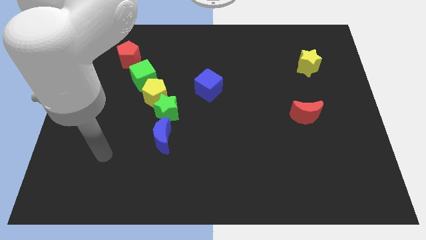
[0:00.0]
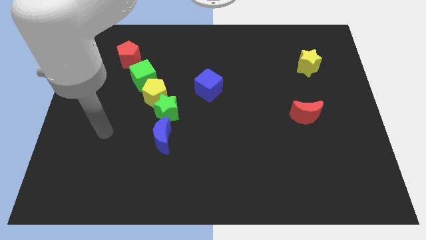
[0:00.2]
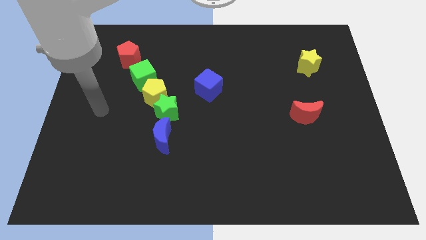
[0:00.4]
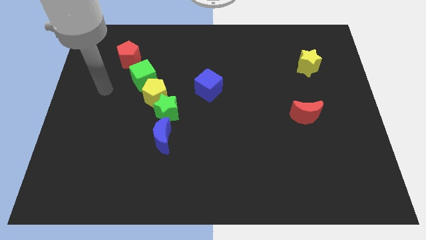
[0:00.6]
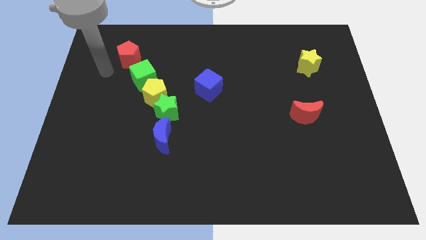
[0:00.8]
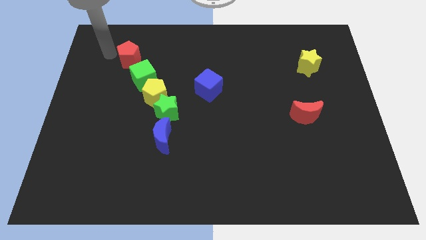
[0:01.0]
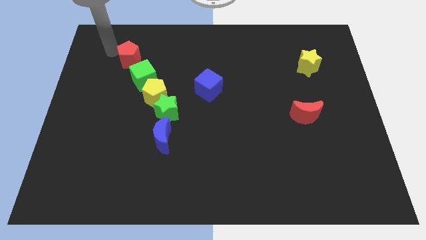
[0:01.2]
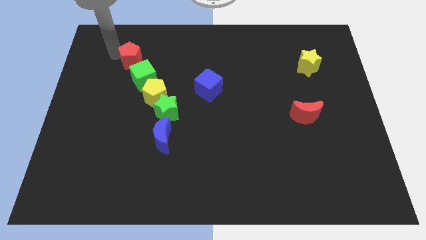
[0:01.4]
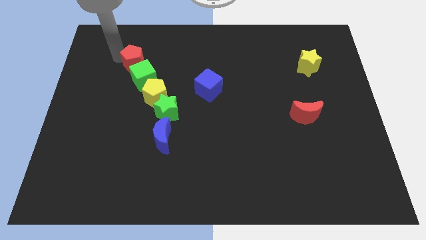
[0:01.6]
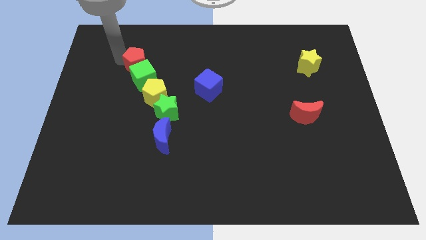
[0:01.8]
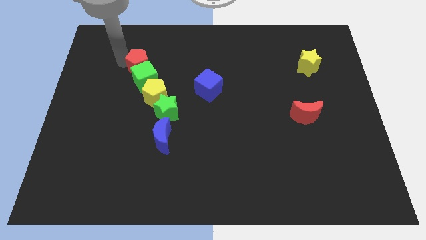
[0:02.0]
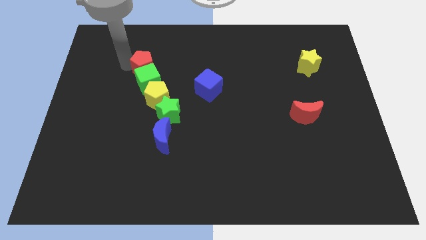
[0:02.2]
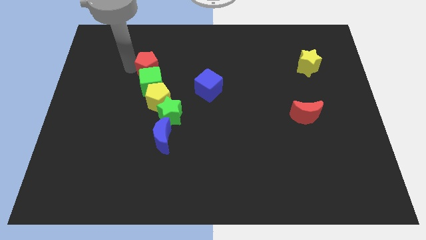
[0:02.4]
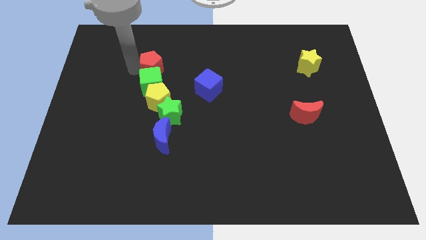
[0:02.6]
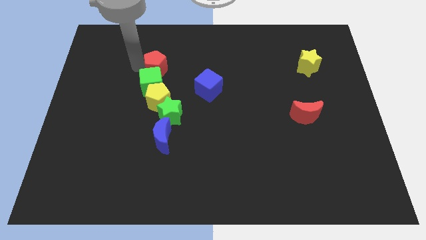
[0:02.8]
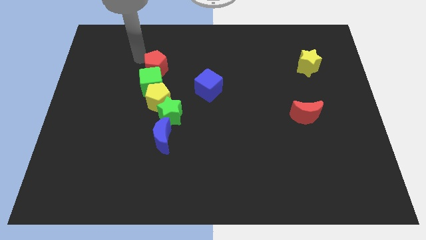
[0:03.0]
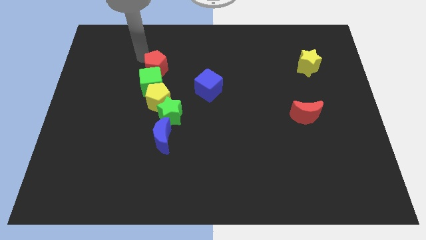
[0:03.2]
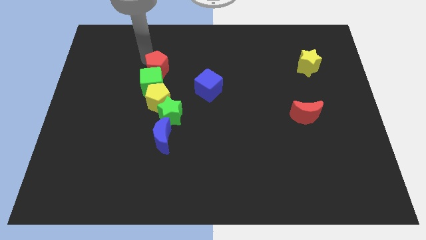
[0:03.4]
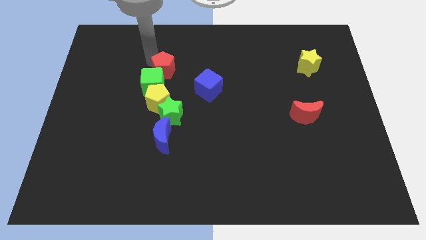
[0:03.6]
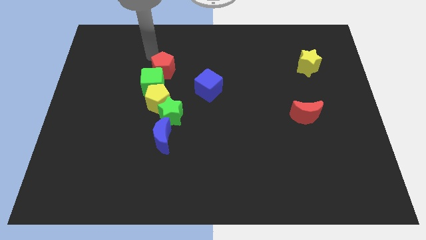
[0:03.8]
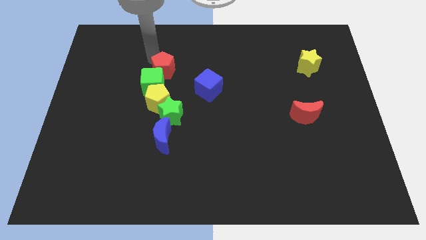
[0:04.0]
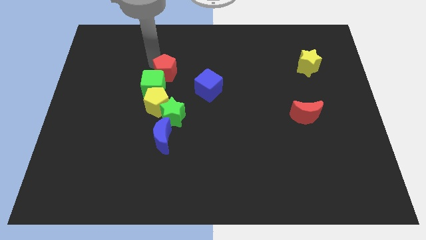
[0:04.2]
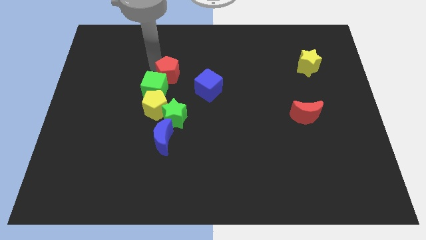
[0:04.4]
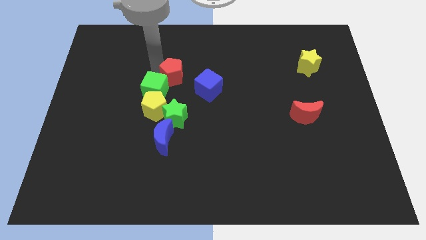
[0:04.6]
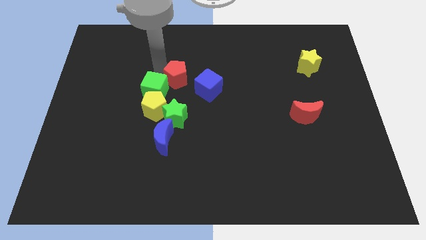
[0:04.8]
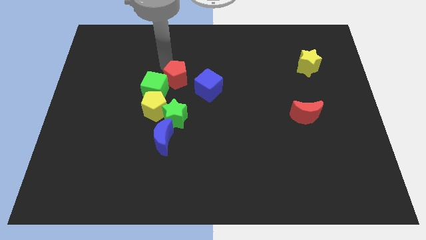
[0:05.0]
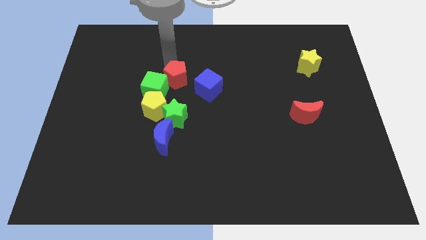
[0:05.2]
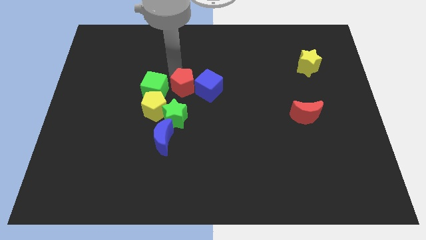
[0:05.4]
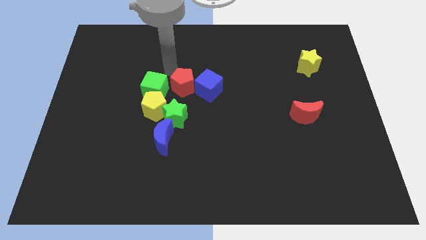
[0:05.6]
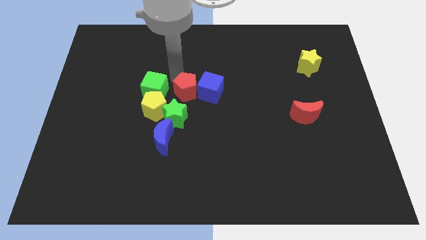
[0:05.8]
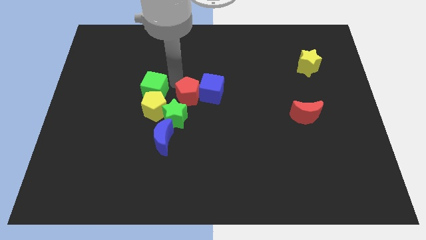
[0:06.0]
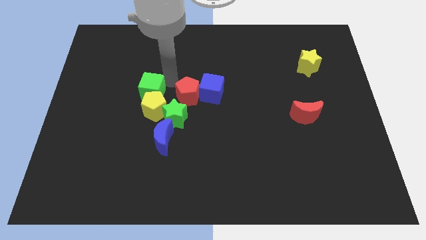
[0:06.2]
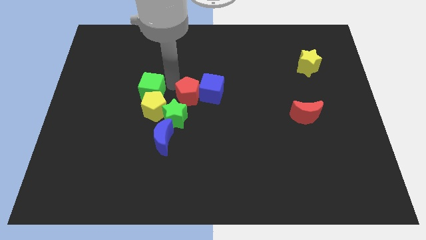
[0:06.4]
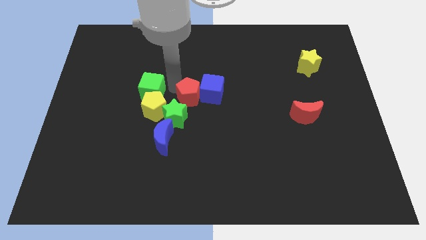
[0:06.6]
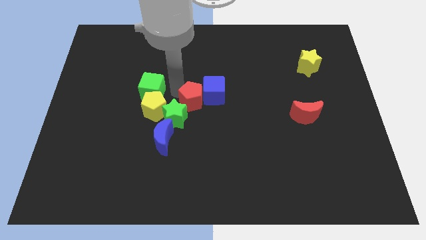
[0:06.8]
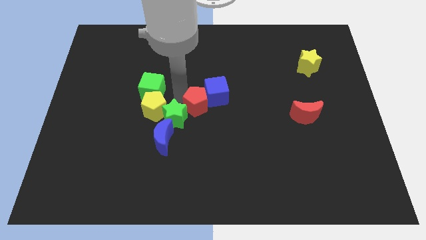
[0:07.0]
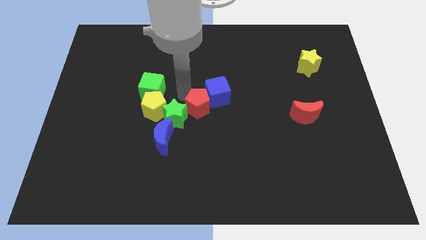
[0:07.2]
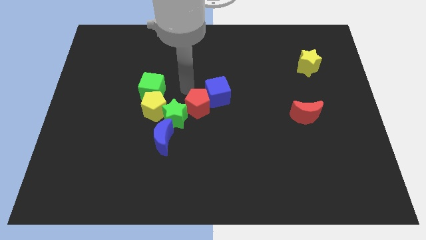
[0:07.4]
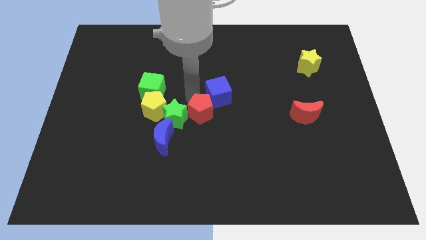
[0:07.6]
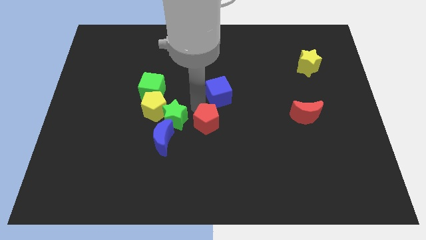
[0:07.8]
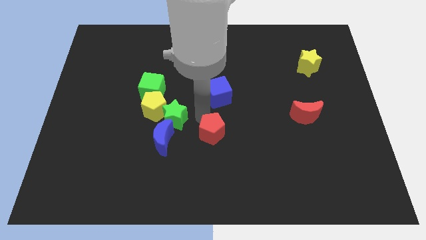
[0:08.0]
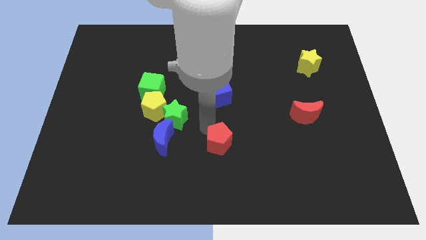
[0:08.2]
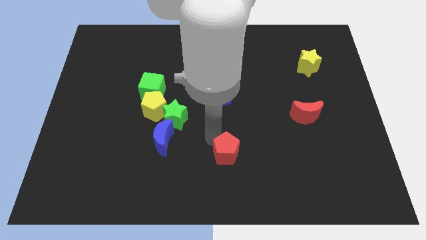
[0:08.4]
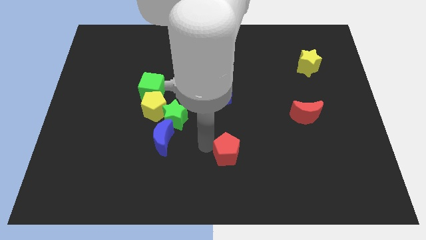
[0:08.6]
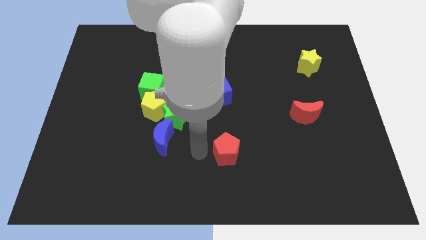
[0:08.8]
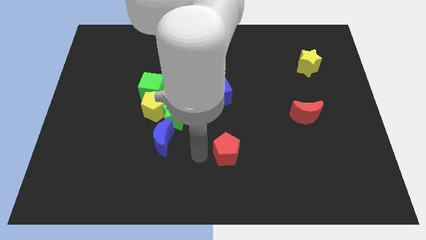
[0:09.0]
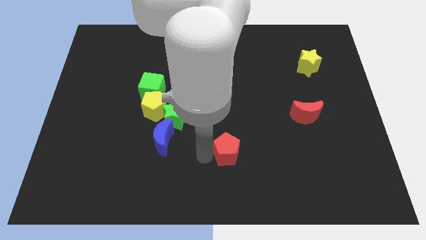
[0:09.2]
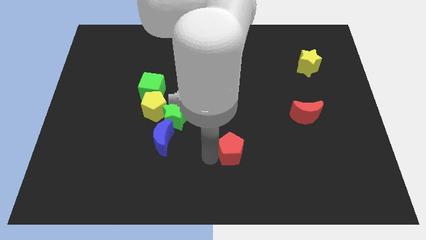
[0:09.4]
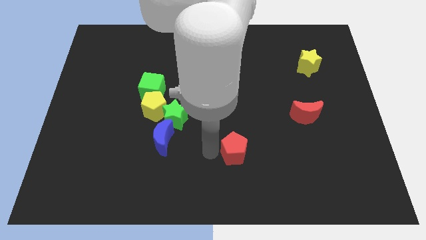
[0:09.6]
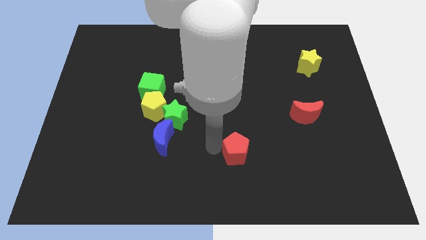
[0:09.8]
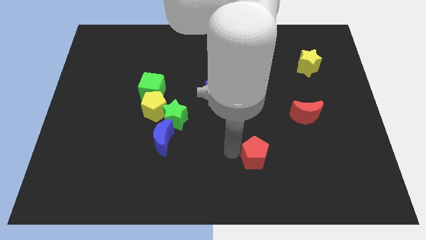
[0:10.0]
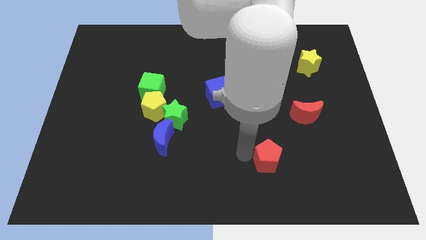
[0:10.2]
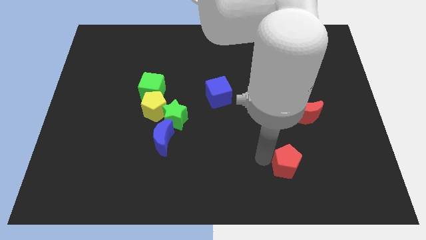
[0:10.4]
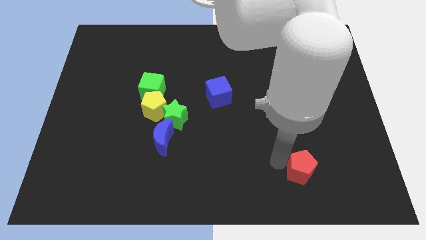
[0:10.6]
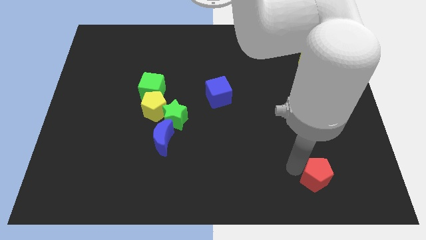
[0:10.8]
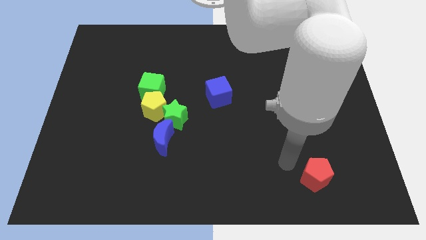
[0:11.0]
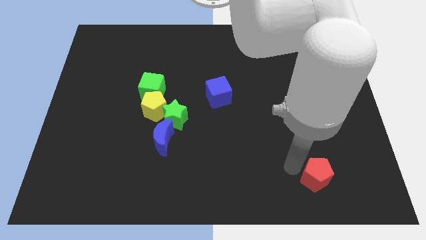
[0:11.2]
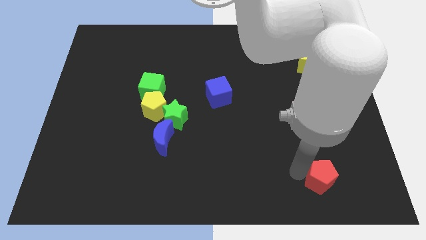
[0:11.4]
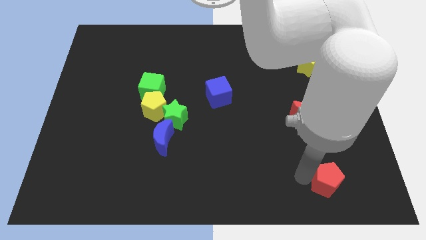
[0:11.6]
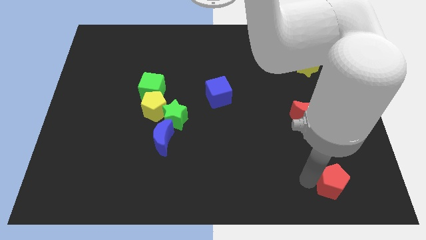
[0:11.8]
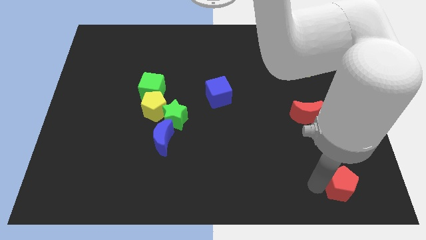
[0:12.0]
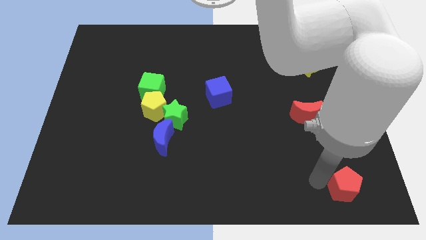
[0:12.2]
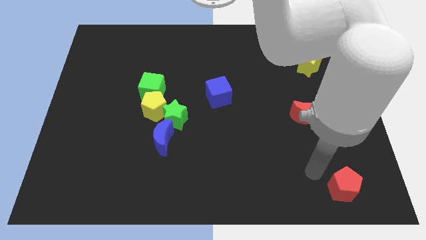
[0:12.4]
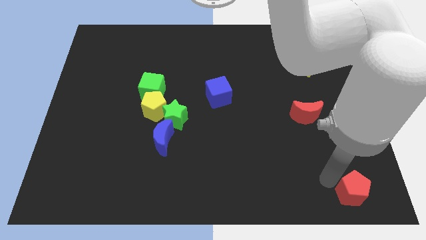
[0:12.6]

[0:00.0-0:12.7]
push the red pentagon to the bottom right
